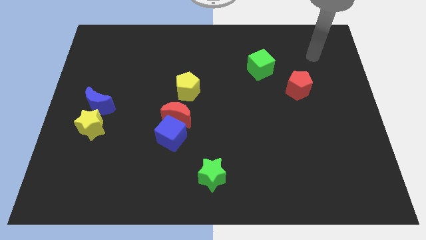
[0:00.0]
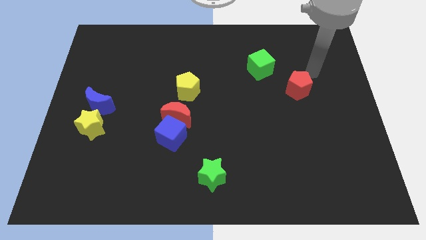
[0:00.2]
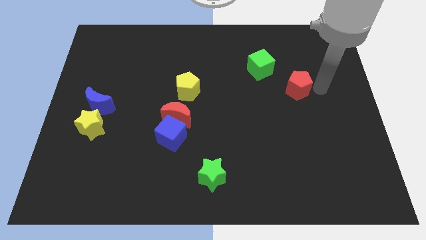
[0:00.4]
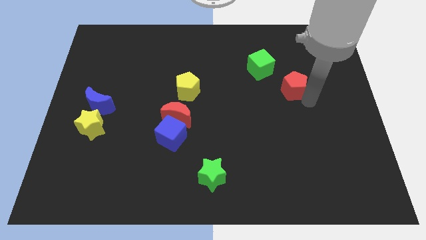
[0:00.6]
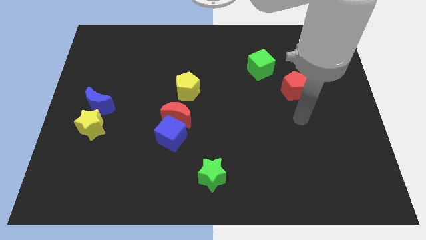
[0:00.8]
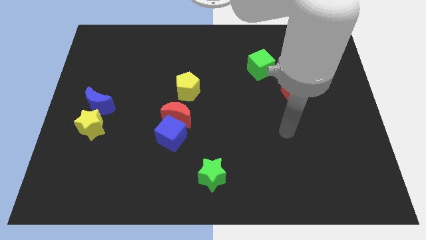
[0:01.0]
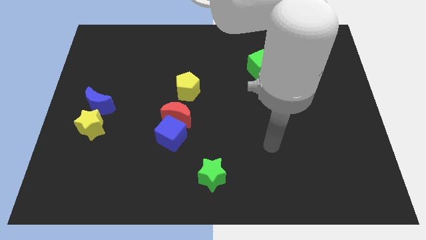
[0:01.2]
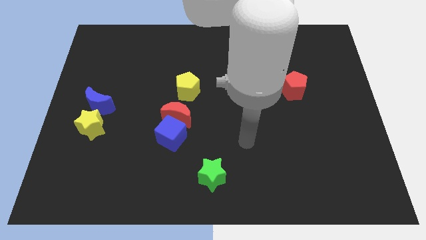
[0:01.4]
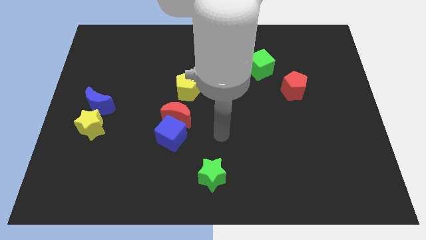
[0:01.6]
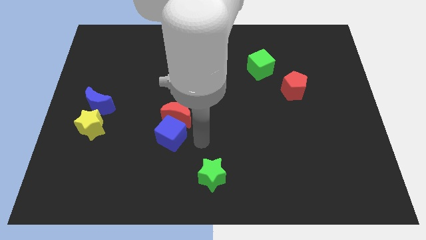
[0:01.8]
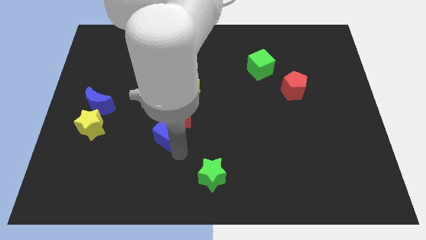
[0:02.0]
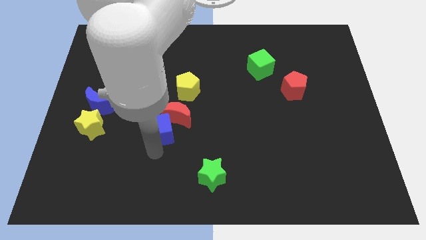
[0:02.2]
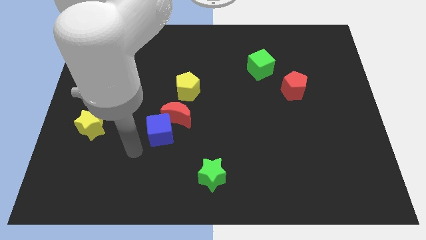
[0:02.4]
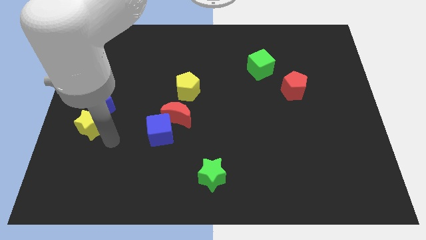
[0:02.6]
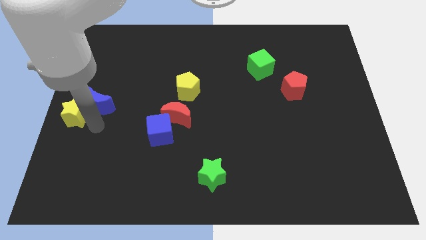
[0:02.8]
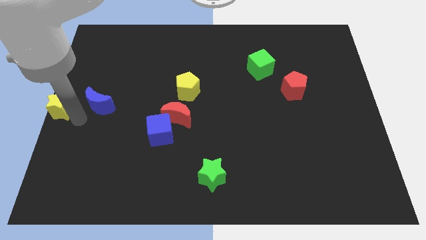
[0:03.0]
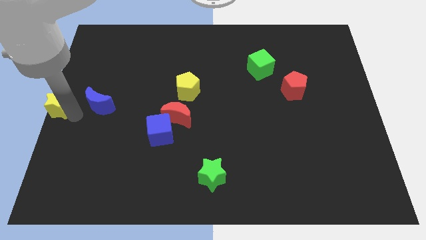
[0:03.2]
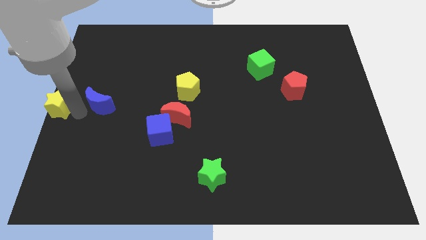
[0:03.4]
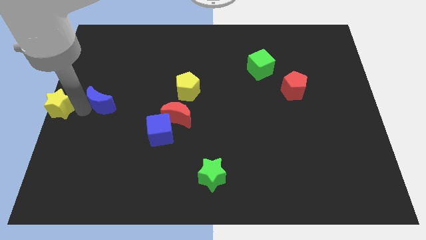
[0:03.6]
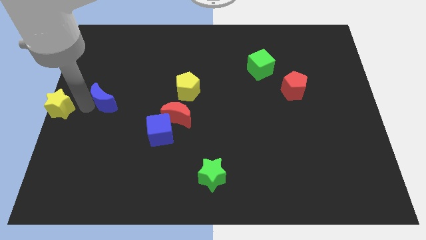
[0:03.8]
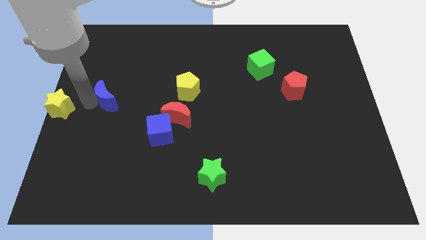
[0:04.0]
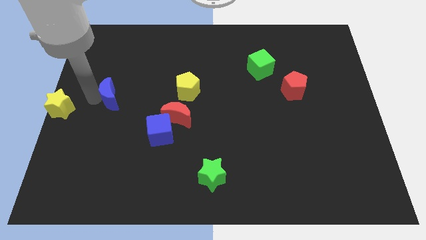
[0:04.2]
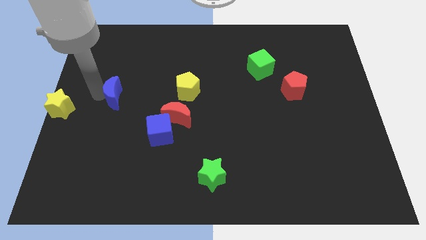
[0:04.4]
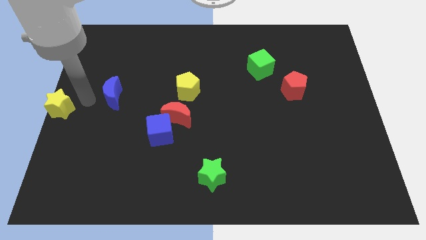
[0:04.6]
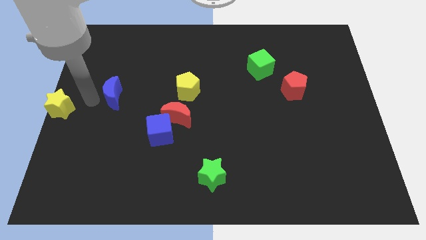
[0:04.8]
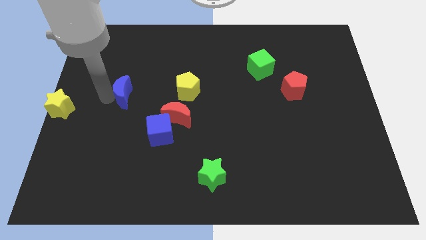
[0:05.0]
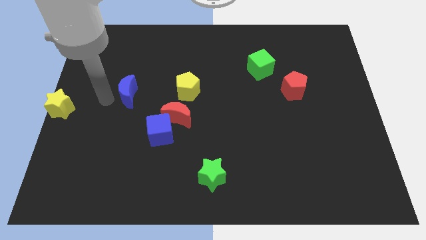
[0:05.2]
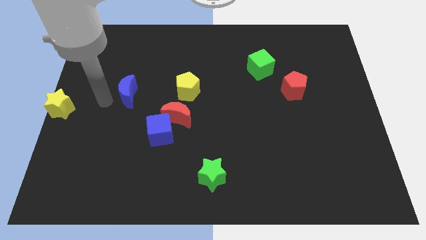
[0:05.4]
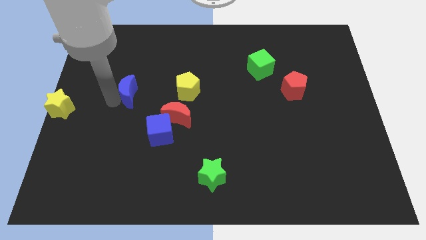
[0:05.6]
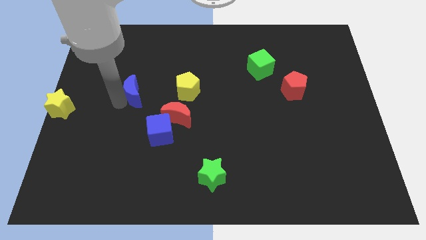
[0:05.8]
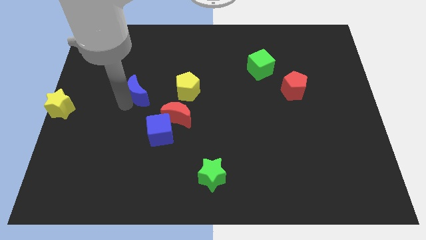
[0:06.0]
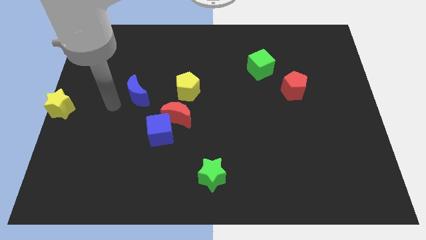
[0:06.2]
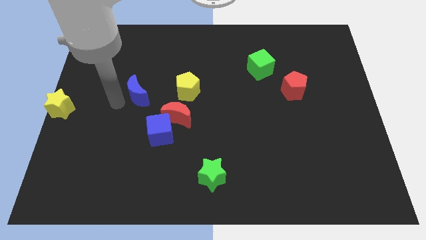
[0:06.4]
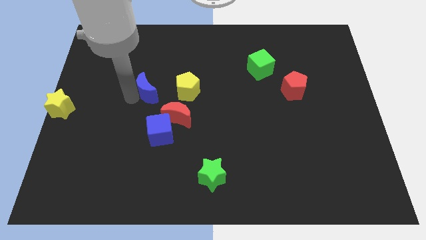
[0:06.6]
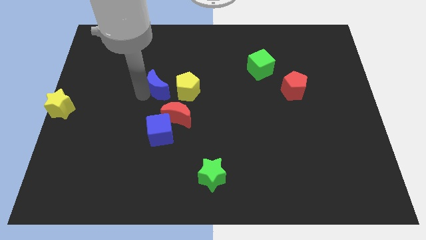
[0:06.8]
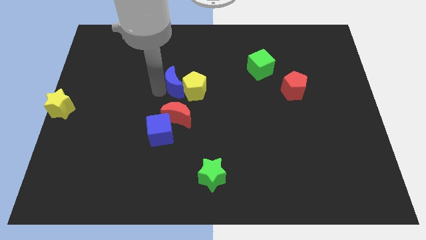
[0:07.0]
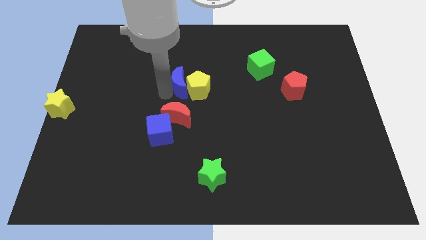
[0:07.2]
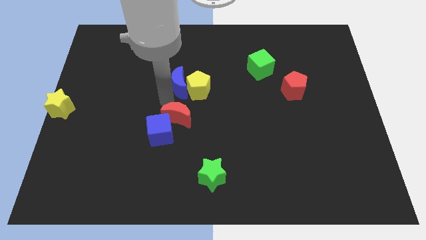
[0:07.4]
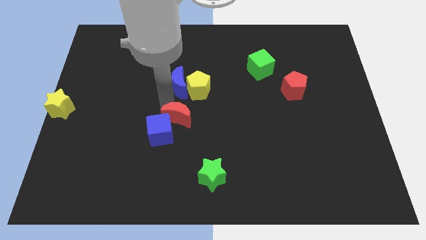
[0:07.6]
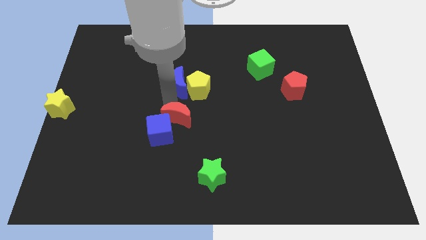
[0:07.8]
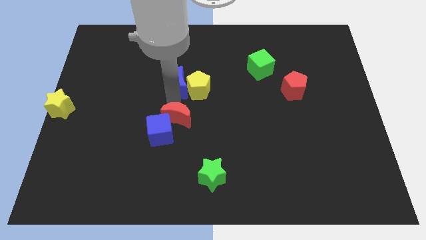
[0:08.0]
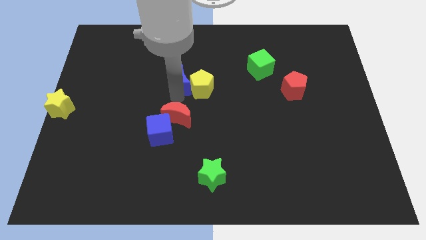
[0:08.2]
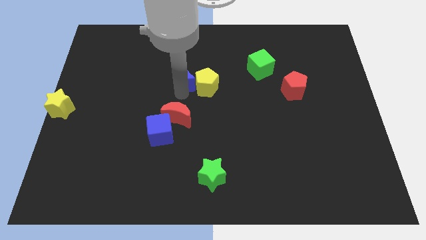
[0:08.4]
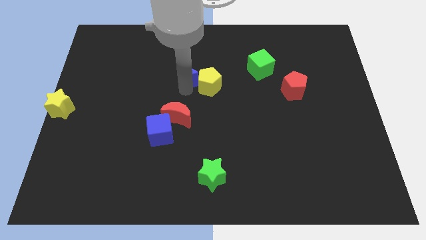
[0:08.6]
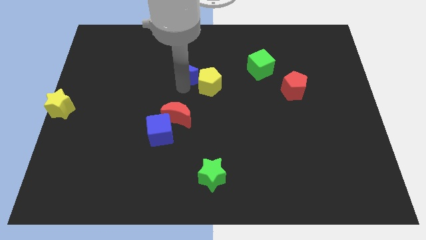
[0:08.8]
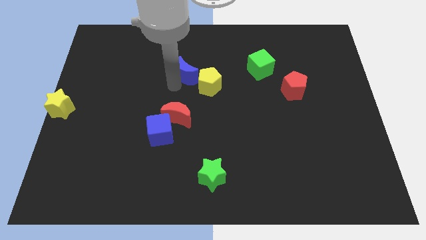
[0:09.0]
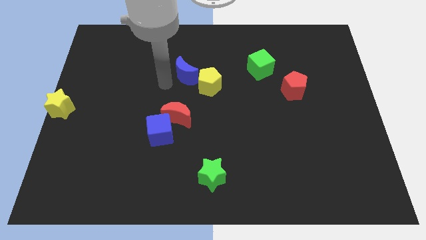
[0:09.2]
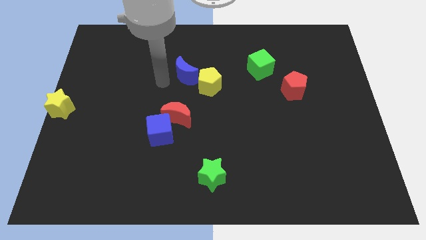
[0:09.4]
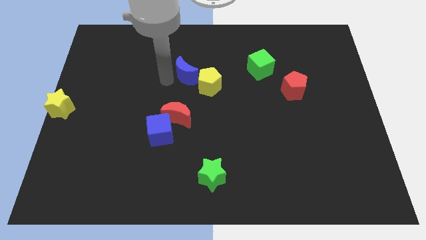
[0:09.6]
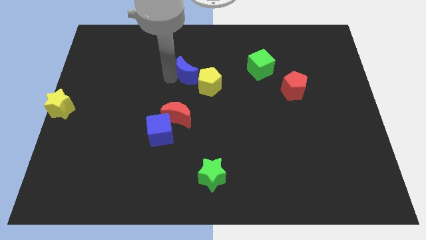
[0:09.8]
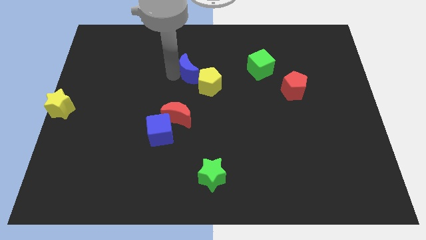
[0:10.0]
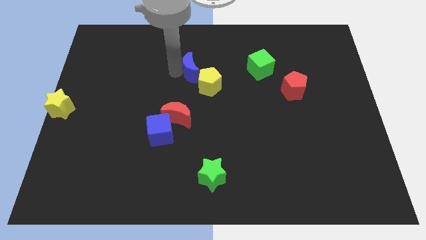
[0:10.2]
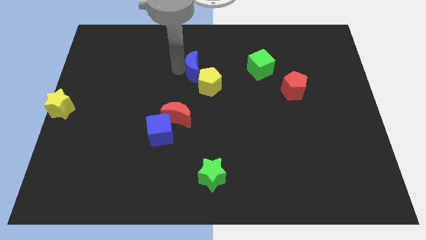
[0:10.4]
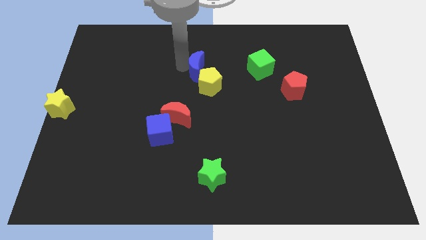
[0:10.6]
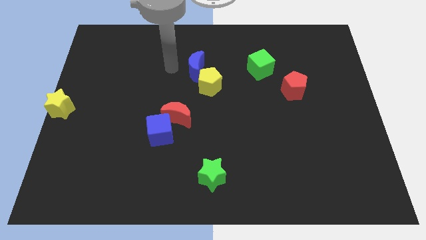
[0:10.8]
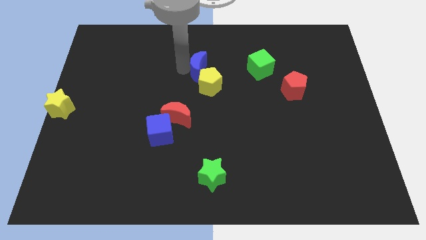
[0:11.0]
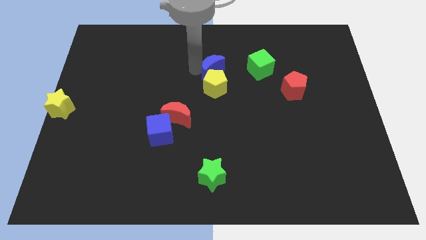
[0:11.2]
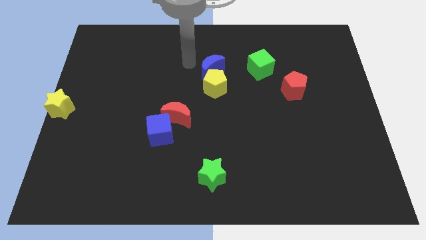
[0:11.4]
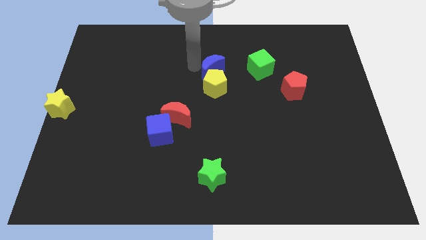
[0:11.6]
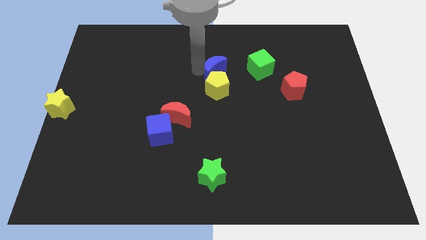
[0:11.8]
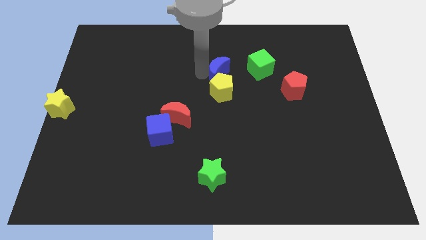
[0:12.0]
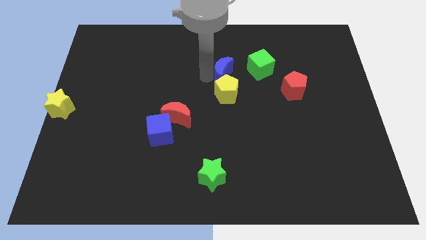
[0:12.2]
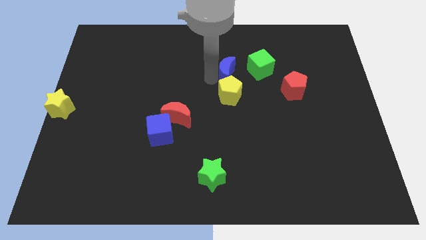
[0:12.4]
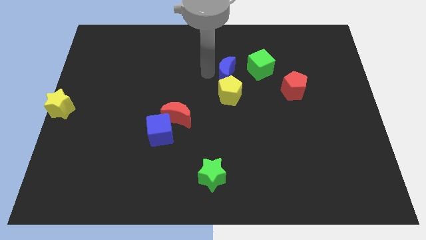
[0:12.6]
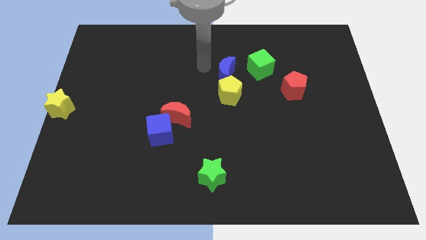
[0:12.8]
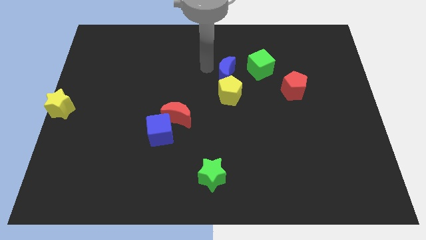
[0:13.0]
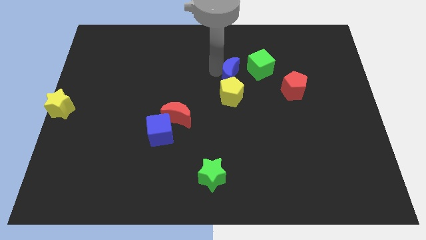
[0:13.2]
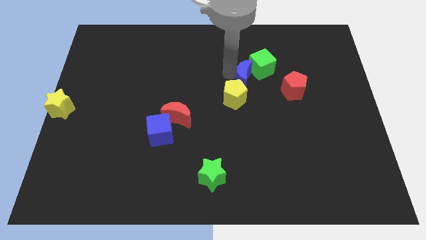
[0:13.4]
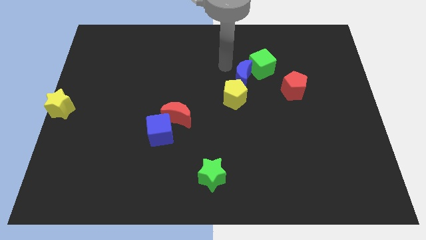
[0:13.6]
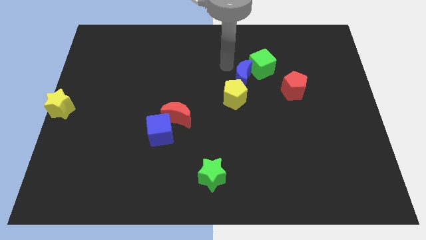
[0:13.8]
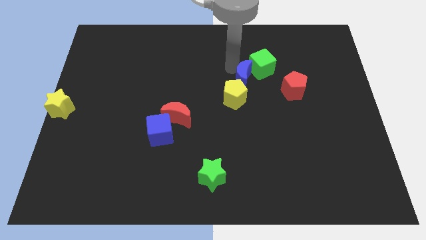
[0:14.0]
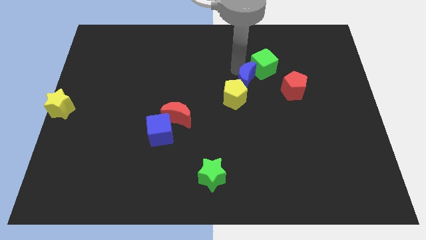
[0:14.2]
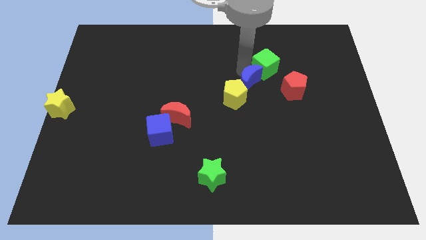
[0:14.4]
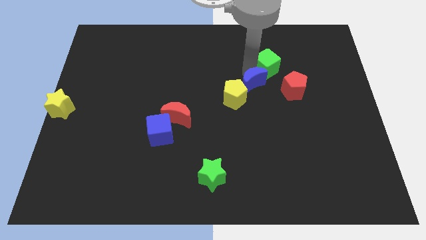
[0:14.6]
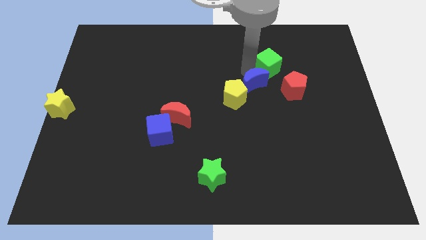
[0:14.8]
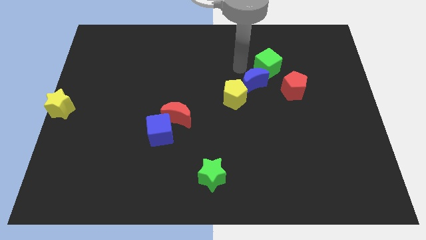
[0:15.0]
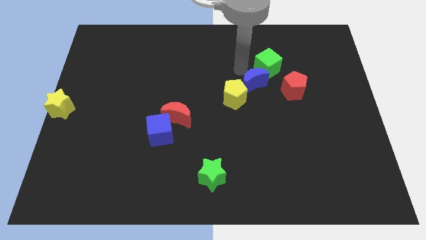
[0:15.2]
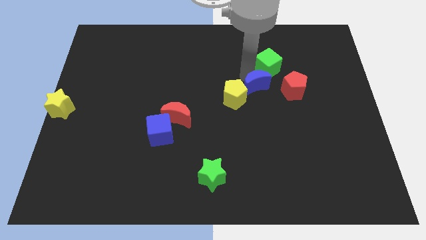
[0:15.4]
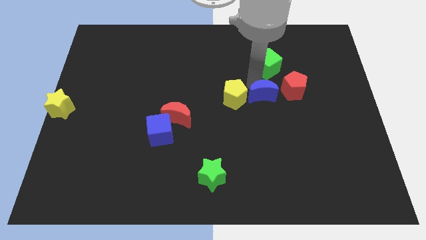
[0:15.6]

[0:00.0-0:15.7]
move the blue moon to the bottom left of the red pentagon
